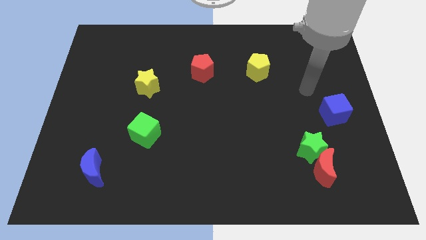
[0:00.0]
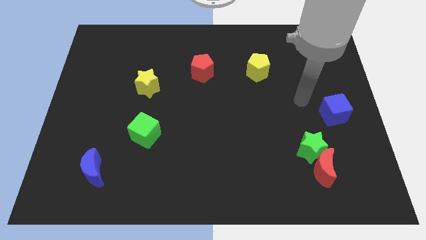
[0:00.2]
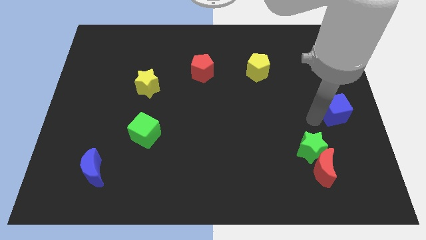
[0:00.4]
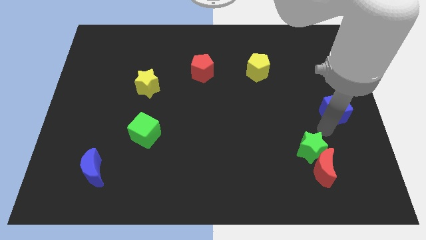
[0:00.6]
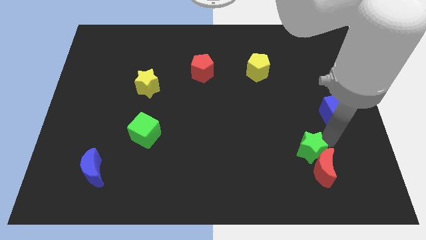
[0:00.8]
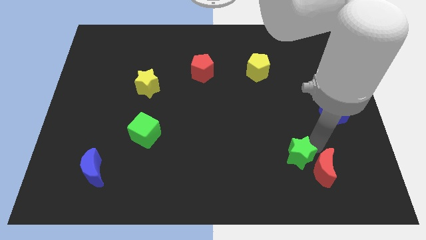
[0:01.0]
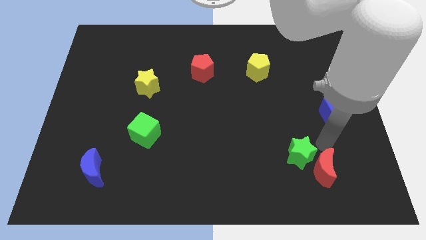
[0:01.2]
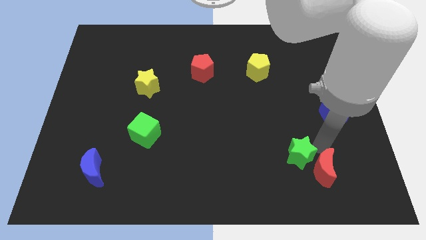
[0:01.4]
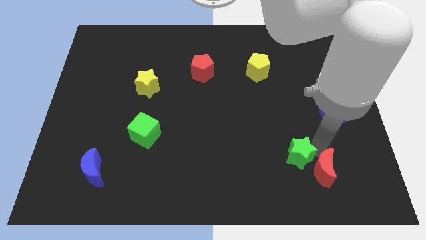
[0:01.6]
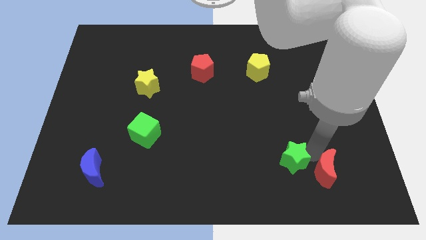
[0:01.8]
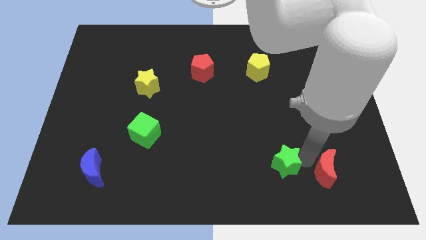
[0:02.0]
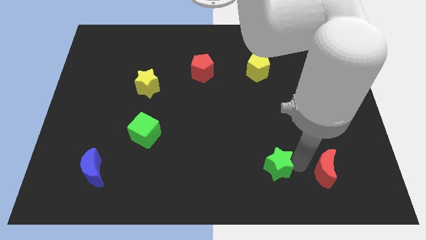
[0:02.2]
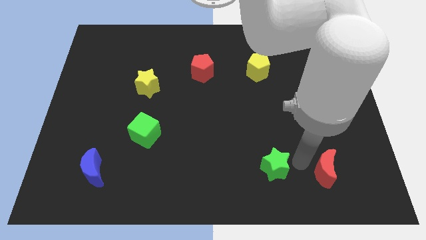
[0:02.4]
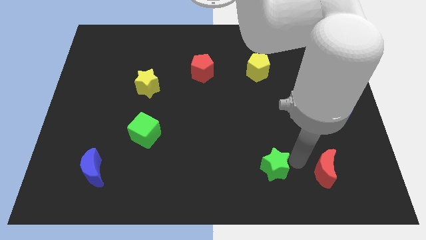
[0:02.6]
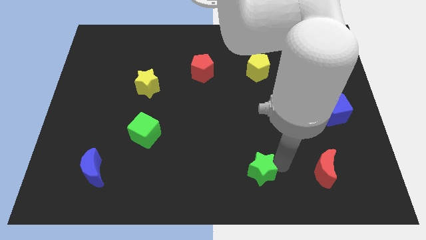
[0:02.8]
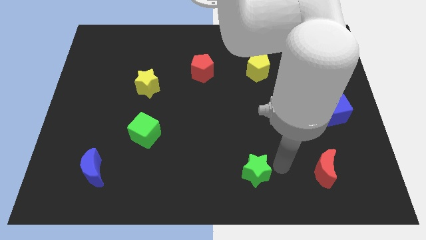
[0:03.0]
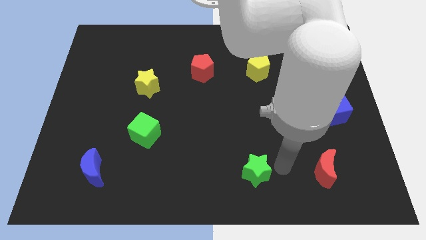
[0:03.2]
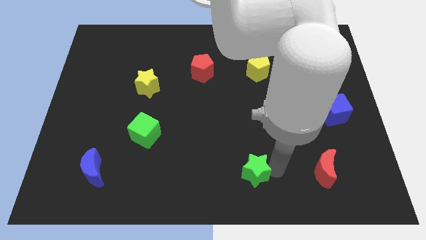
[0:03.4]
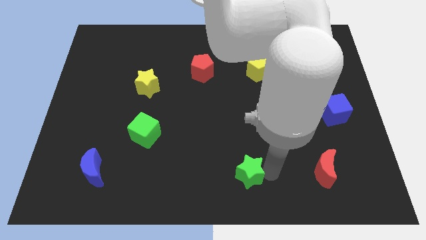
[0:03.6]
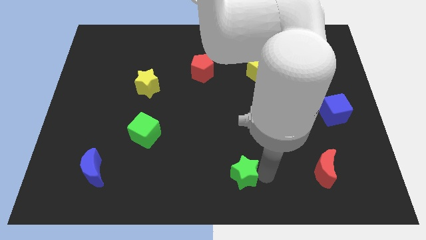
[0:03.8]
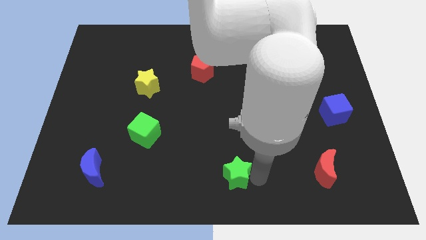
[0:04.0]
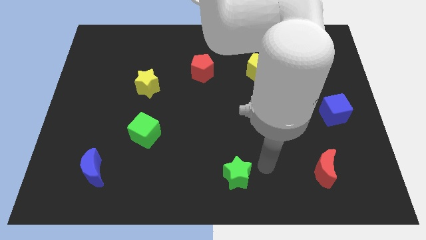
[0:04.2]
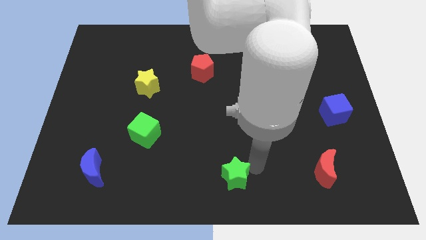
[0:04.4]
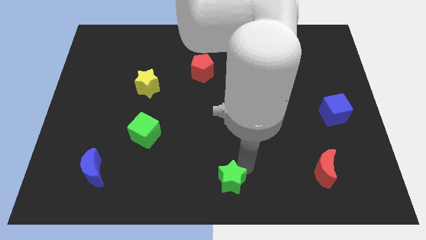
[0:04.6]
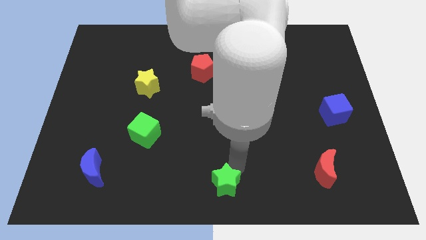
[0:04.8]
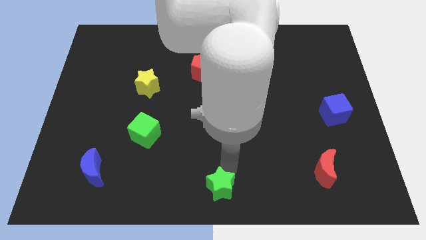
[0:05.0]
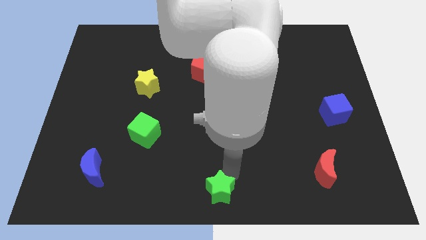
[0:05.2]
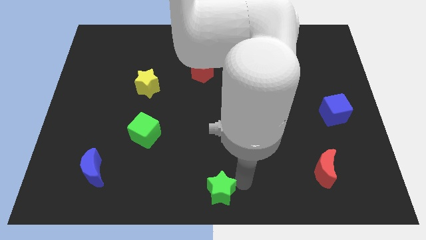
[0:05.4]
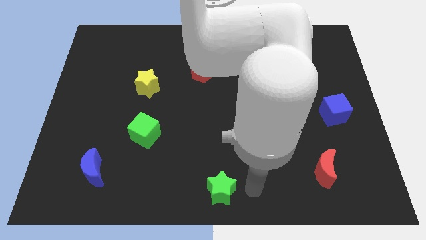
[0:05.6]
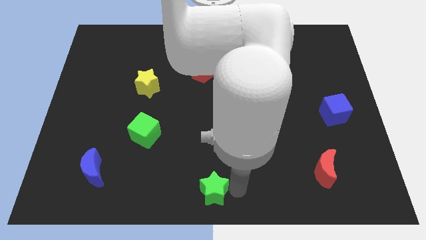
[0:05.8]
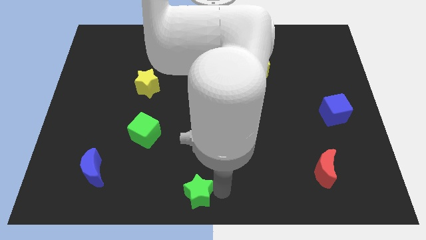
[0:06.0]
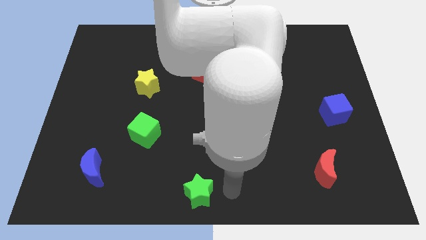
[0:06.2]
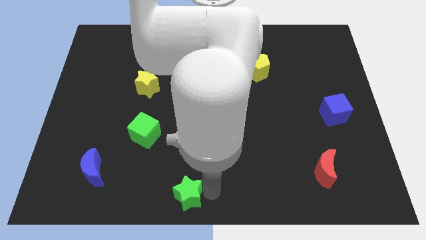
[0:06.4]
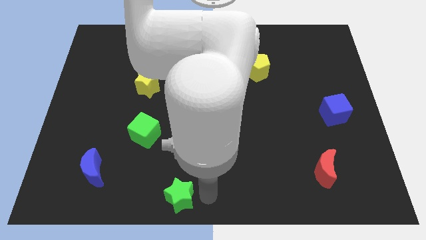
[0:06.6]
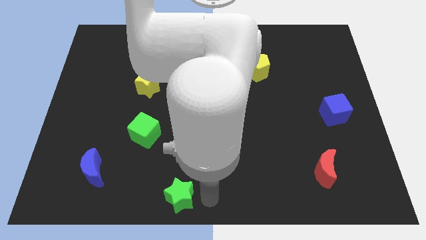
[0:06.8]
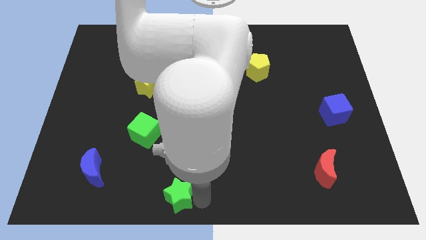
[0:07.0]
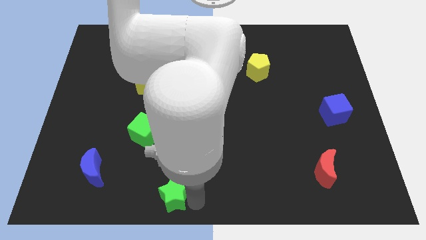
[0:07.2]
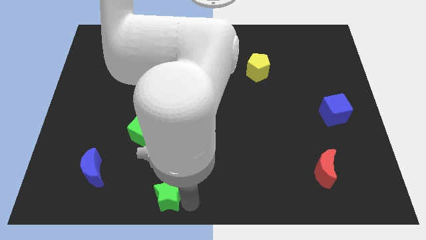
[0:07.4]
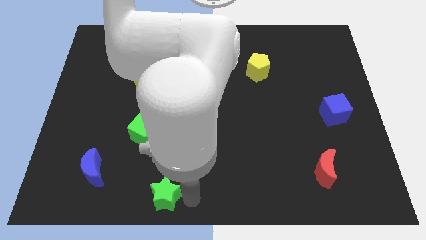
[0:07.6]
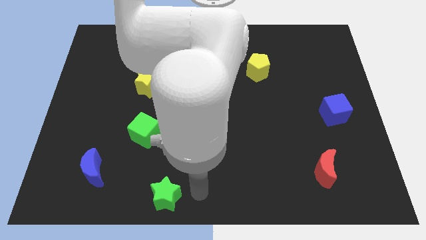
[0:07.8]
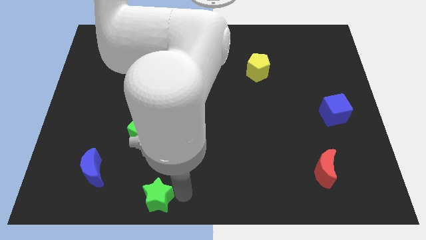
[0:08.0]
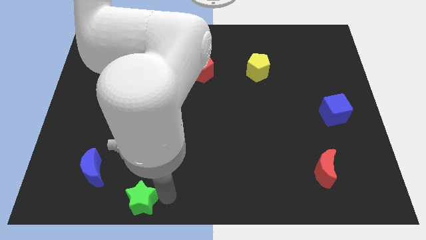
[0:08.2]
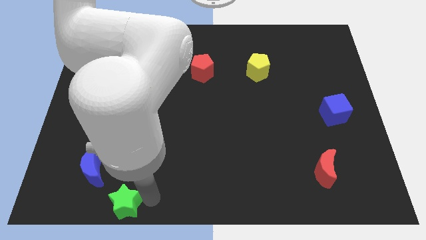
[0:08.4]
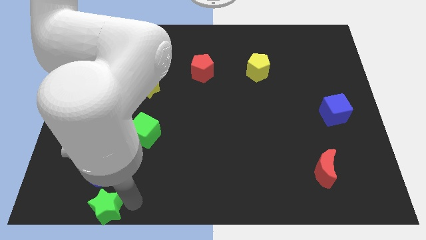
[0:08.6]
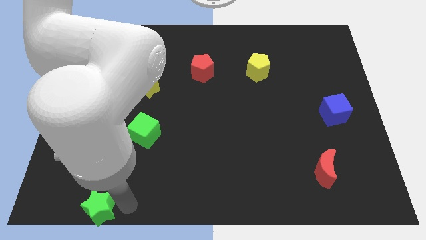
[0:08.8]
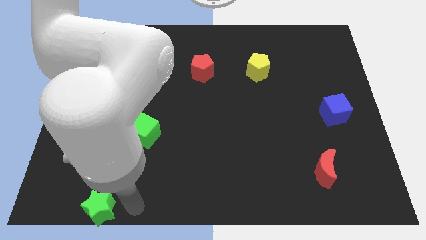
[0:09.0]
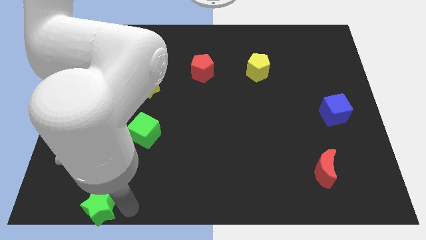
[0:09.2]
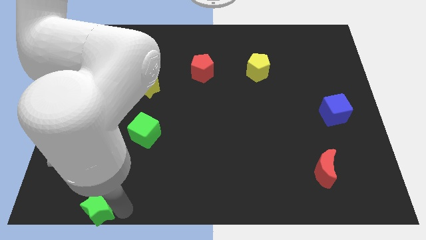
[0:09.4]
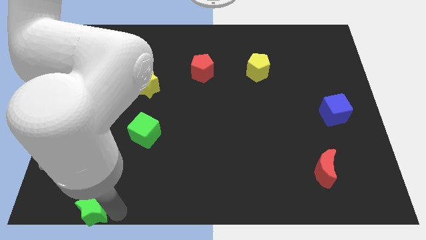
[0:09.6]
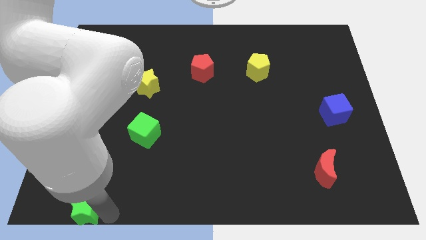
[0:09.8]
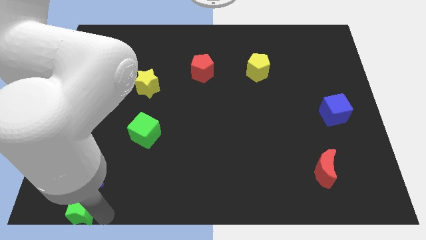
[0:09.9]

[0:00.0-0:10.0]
put the green star to the bottom left

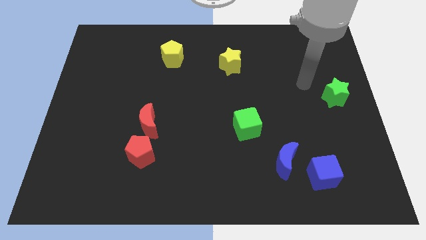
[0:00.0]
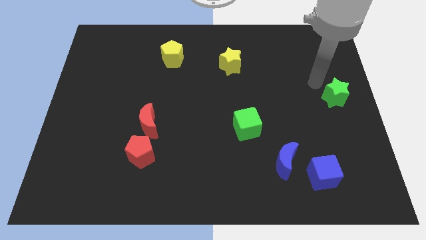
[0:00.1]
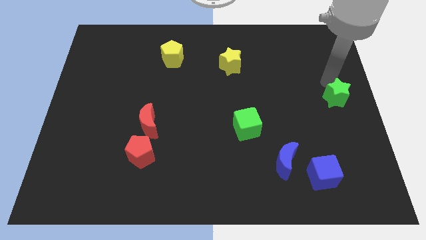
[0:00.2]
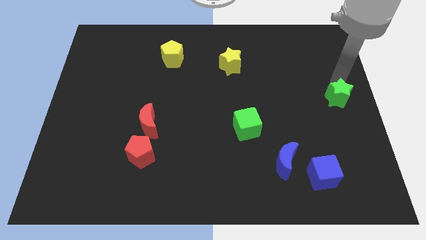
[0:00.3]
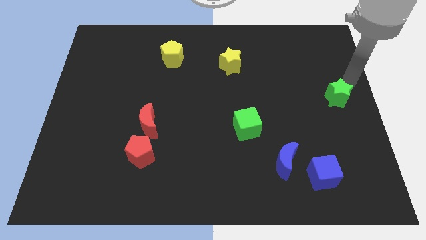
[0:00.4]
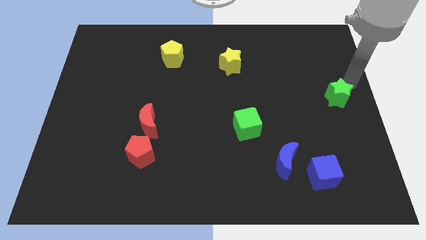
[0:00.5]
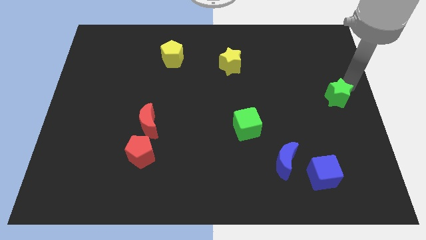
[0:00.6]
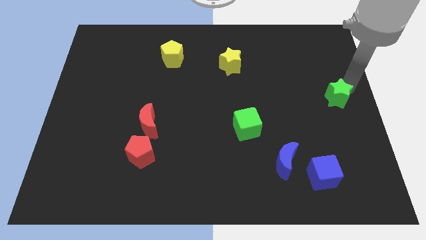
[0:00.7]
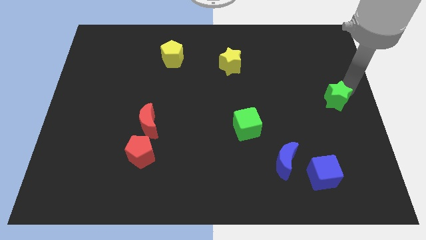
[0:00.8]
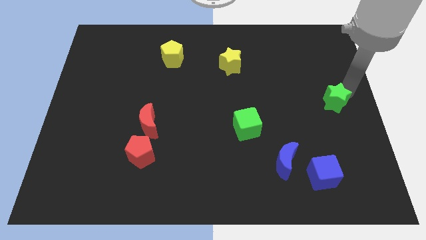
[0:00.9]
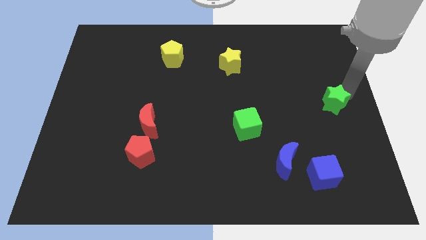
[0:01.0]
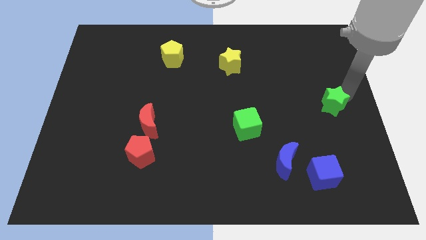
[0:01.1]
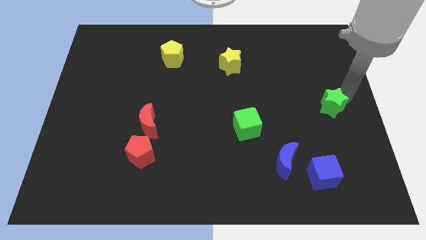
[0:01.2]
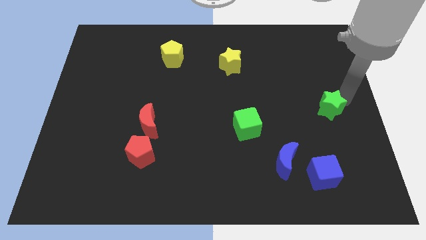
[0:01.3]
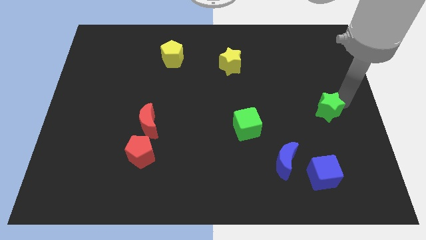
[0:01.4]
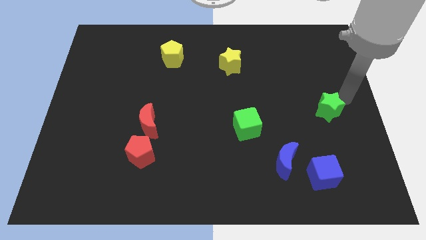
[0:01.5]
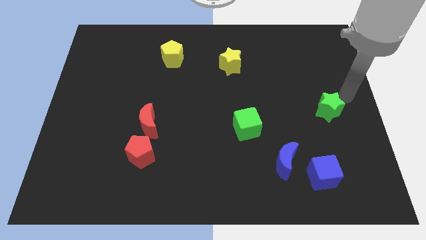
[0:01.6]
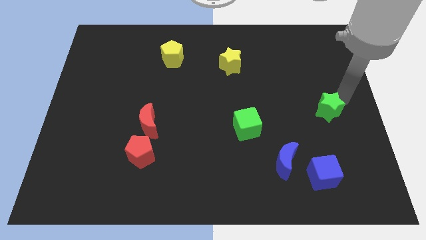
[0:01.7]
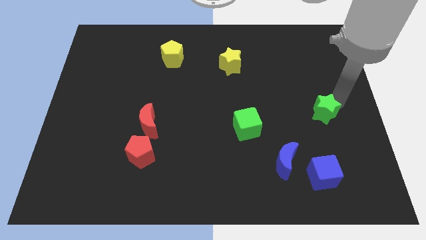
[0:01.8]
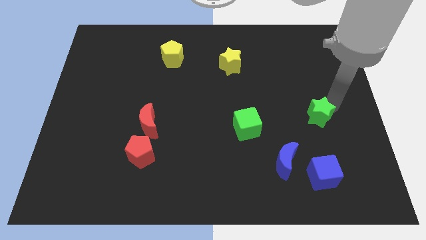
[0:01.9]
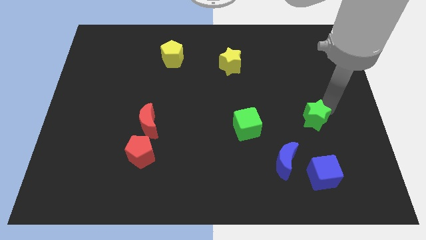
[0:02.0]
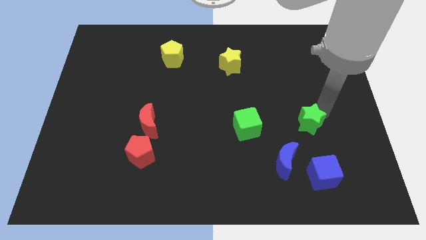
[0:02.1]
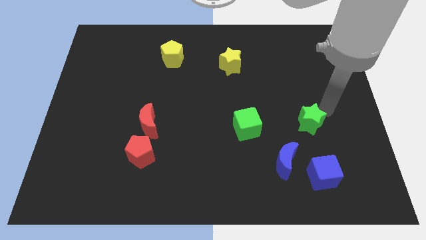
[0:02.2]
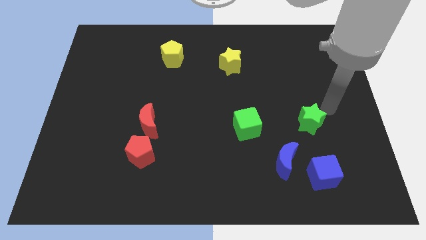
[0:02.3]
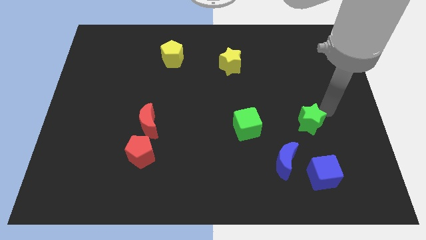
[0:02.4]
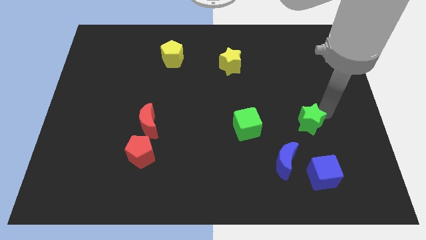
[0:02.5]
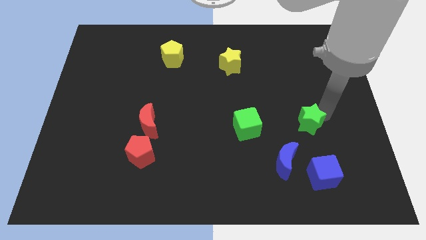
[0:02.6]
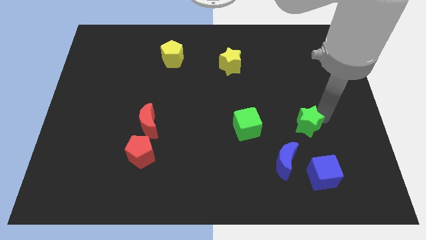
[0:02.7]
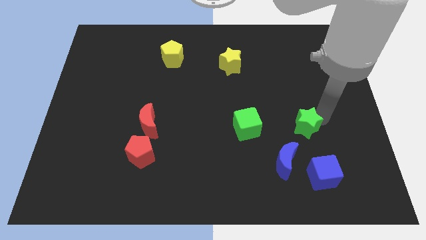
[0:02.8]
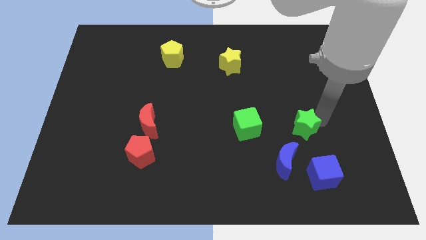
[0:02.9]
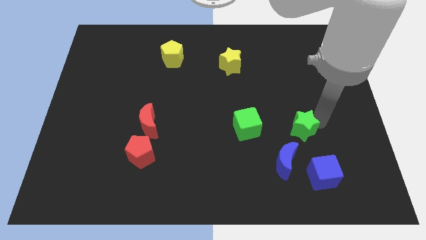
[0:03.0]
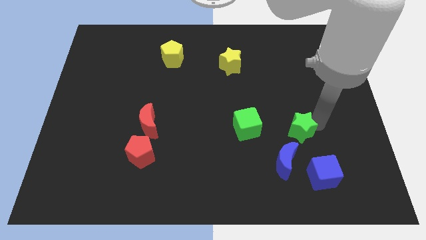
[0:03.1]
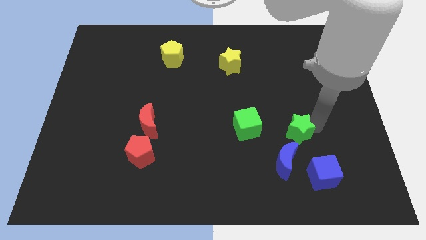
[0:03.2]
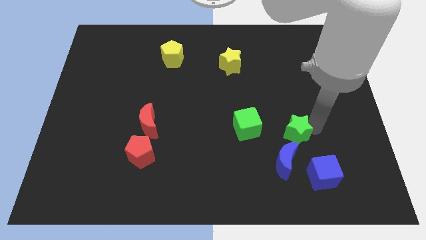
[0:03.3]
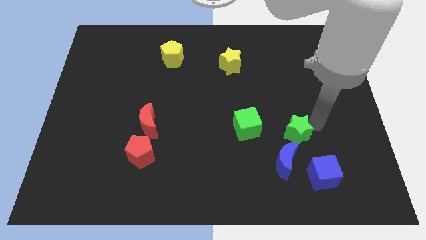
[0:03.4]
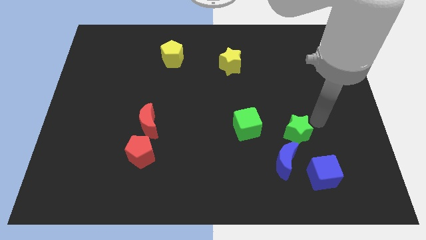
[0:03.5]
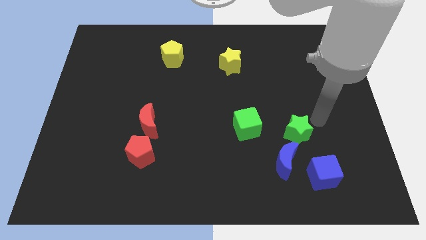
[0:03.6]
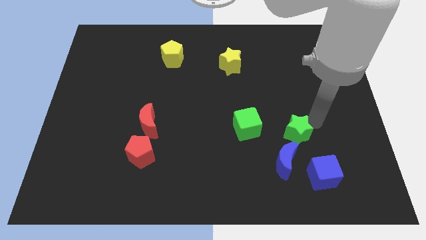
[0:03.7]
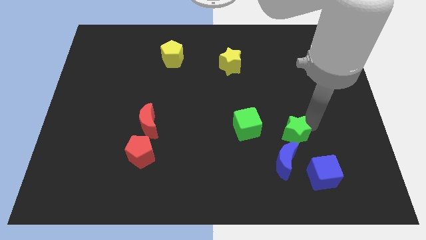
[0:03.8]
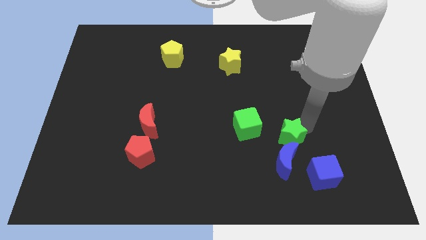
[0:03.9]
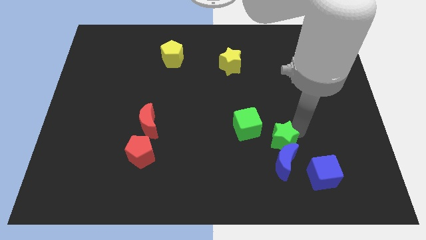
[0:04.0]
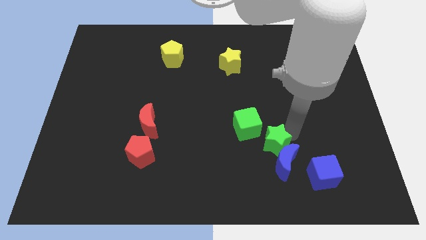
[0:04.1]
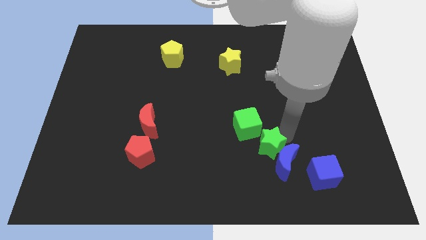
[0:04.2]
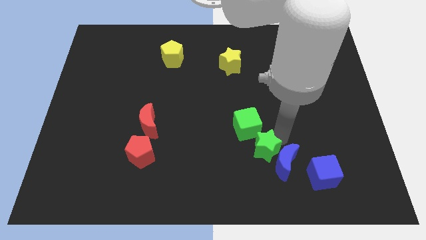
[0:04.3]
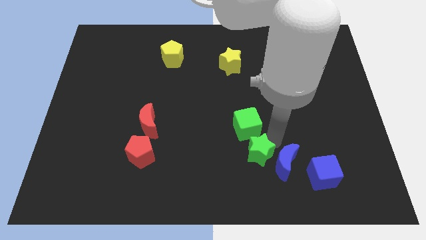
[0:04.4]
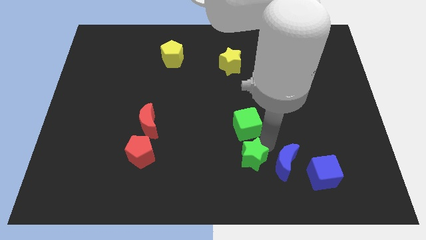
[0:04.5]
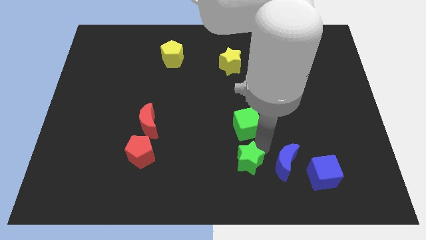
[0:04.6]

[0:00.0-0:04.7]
push the green star to the bottom side
